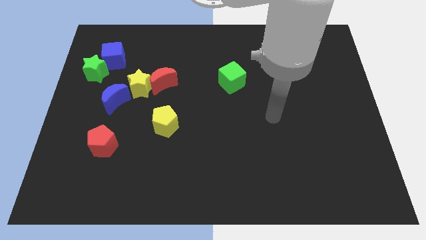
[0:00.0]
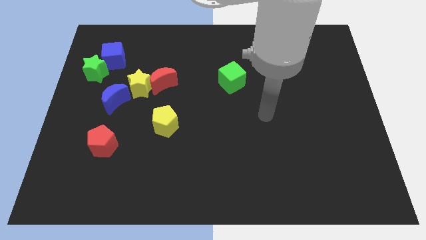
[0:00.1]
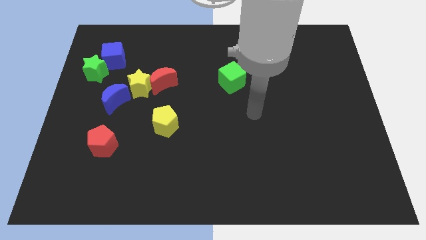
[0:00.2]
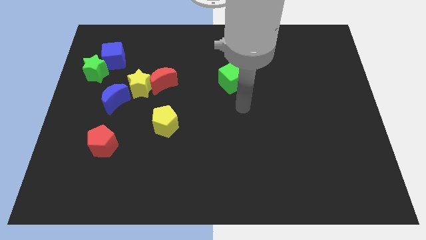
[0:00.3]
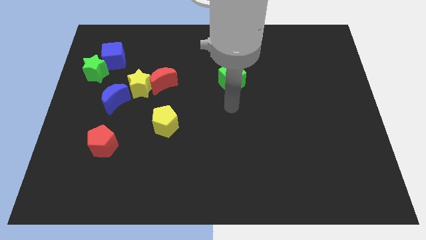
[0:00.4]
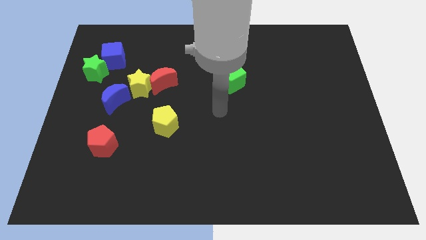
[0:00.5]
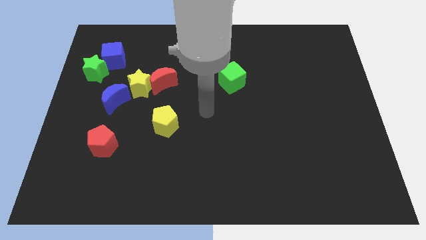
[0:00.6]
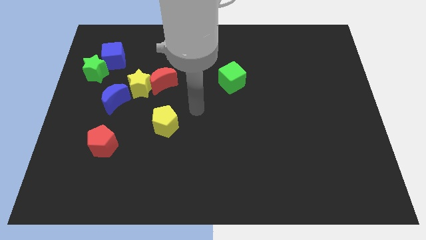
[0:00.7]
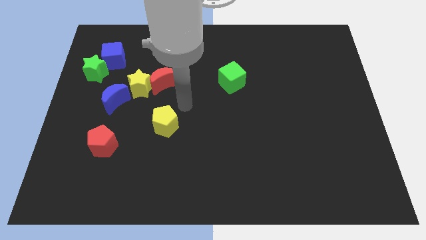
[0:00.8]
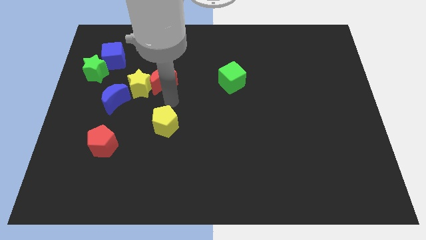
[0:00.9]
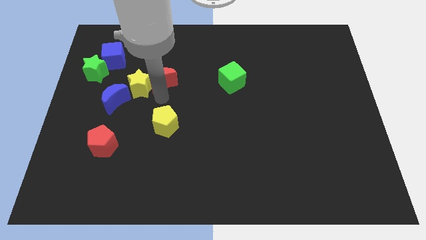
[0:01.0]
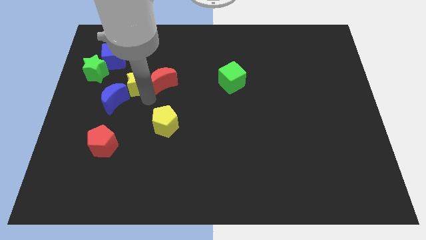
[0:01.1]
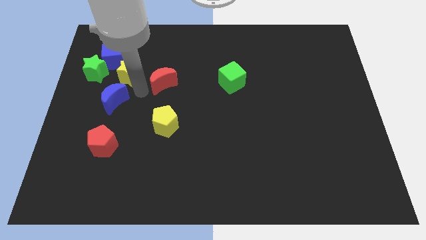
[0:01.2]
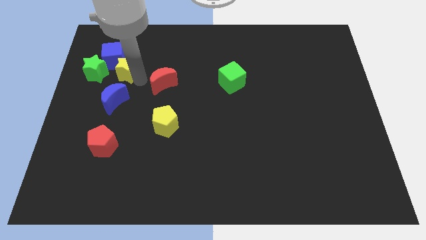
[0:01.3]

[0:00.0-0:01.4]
separate the red moon from the yellow star

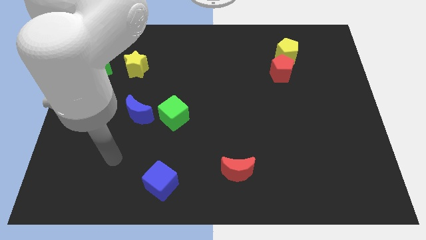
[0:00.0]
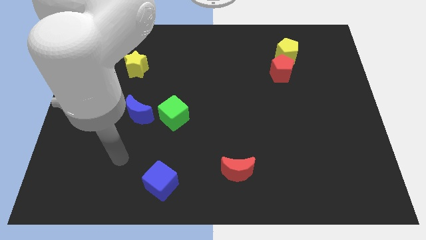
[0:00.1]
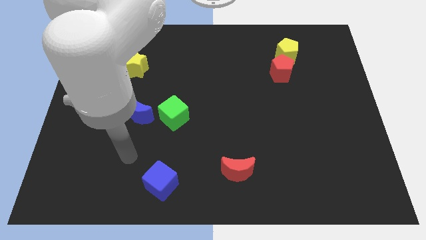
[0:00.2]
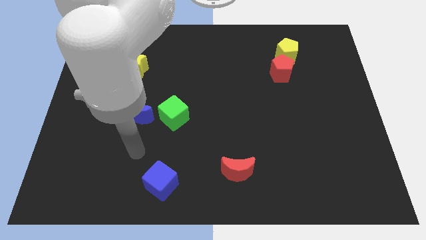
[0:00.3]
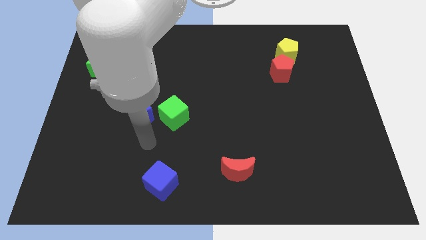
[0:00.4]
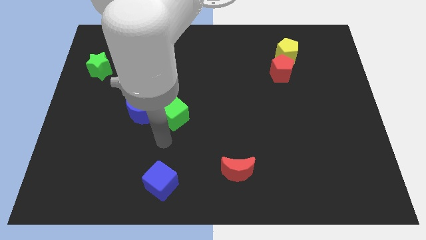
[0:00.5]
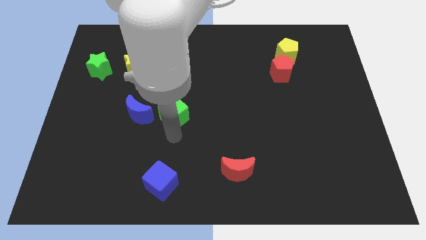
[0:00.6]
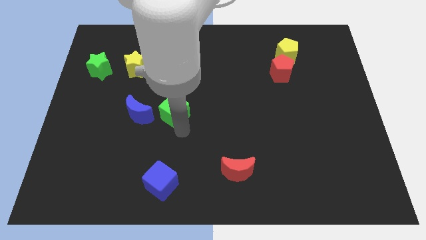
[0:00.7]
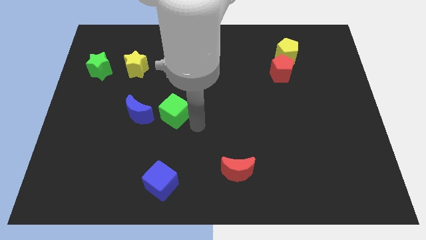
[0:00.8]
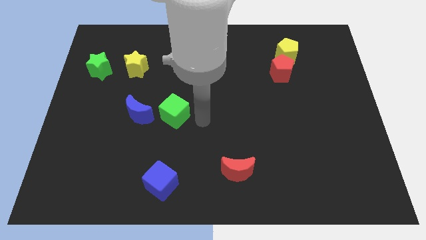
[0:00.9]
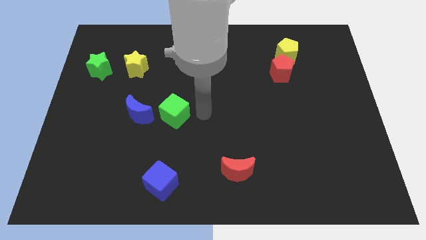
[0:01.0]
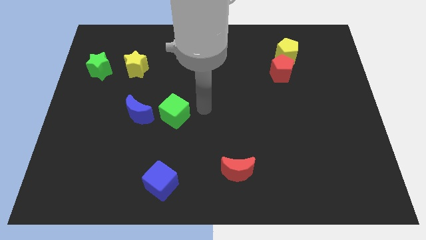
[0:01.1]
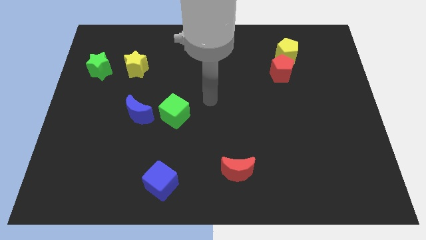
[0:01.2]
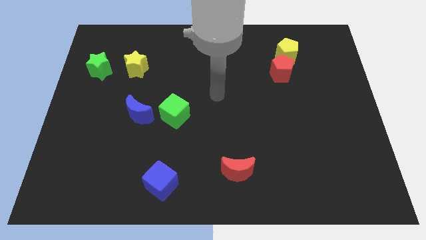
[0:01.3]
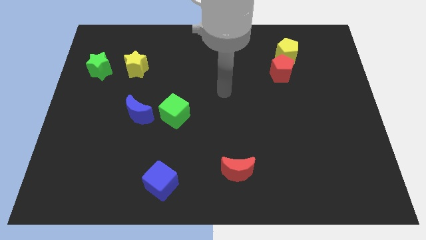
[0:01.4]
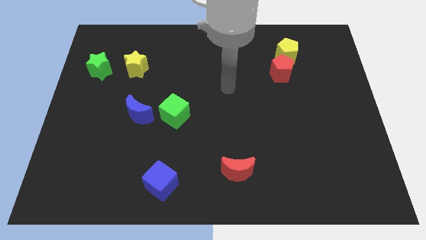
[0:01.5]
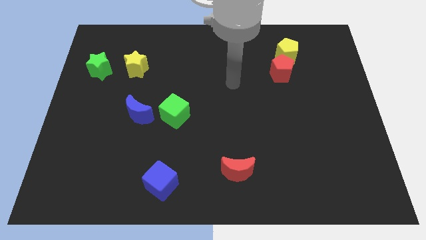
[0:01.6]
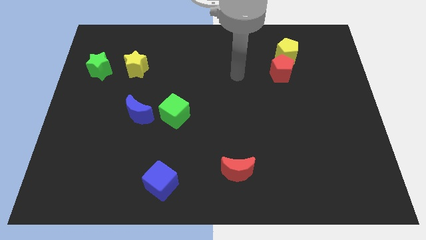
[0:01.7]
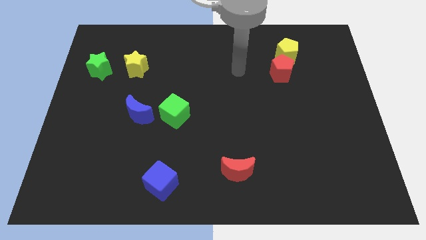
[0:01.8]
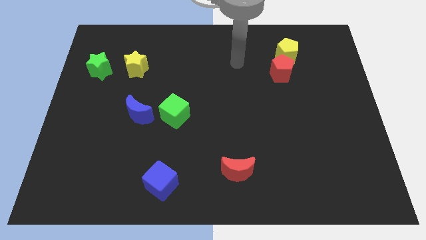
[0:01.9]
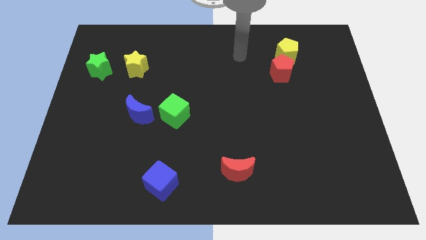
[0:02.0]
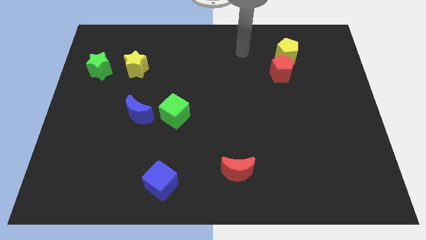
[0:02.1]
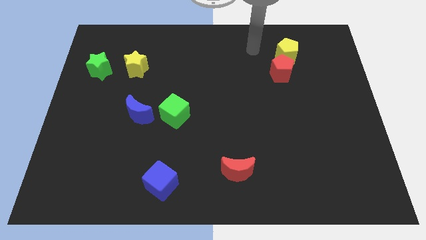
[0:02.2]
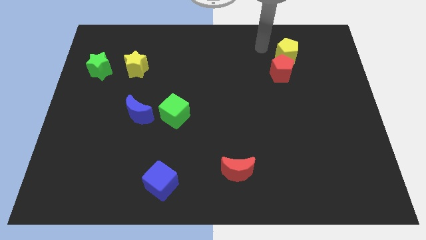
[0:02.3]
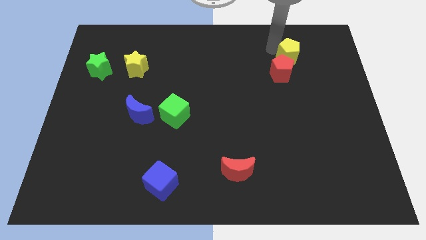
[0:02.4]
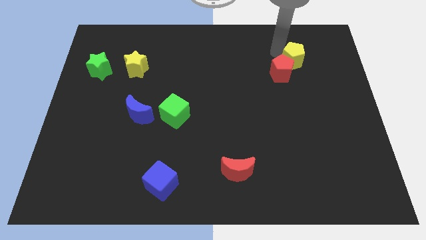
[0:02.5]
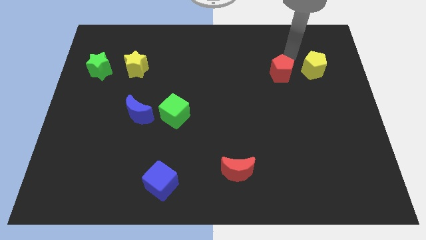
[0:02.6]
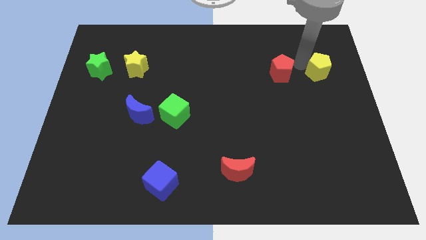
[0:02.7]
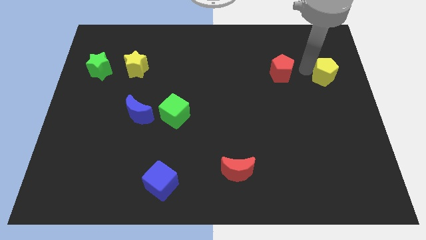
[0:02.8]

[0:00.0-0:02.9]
pull the red pentagon apart from the yellow pentagon

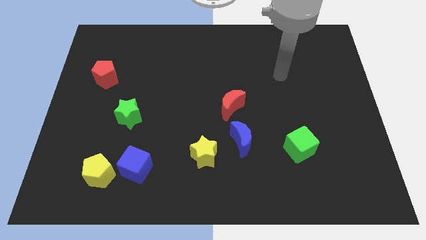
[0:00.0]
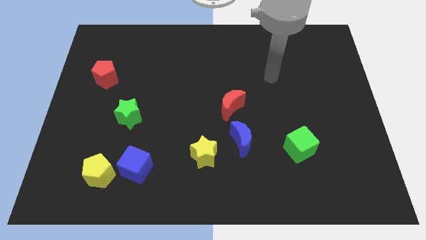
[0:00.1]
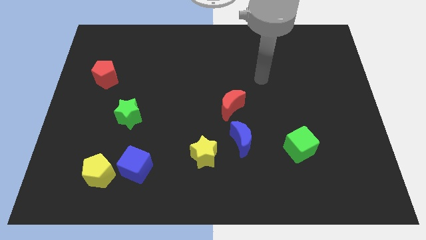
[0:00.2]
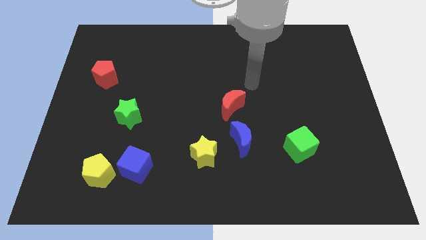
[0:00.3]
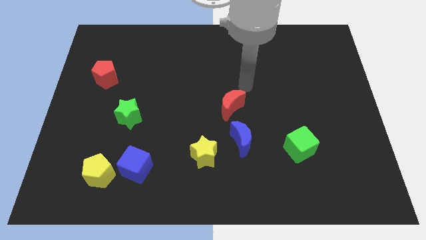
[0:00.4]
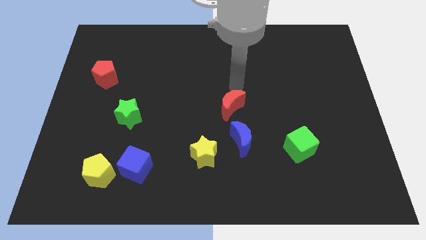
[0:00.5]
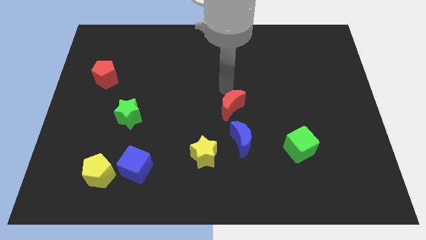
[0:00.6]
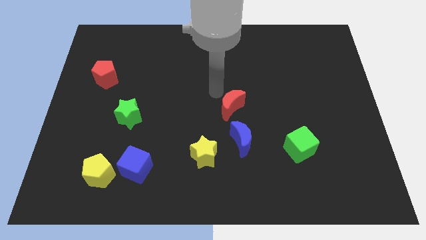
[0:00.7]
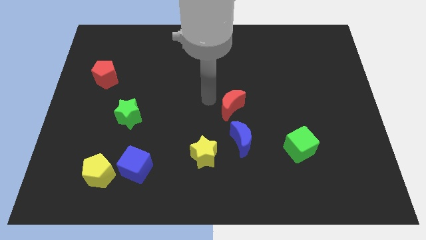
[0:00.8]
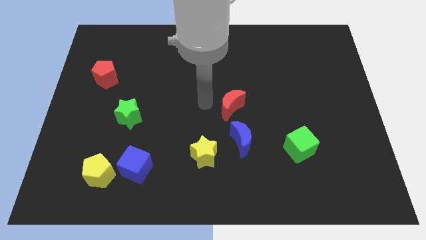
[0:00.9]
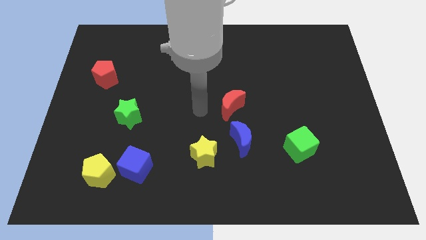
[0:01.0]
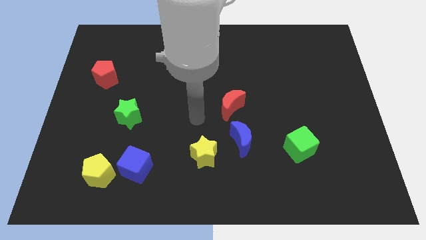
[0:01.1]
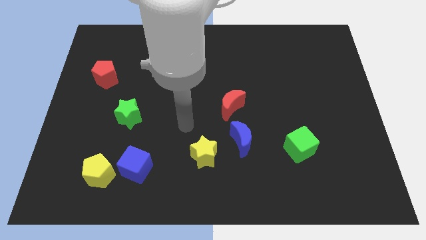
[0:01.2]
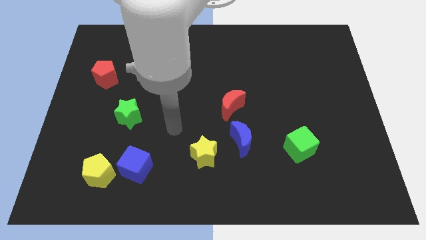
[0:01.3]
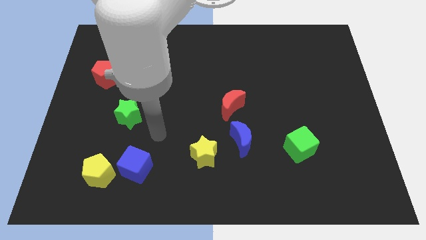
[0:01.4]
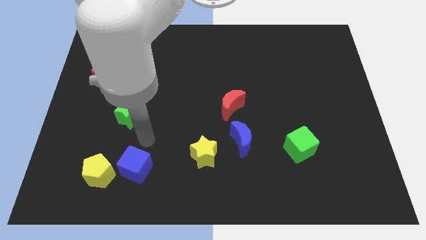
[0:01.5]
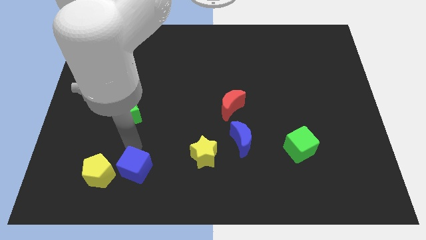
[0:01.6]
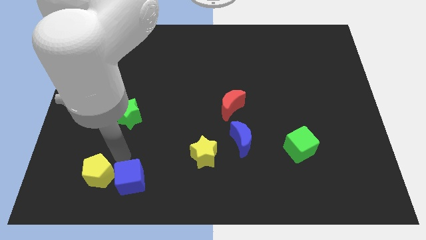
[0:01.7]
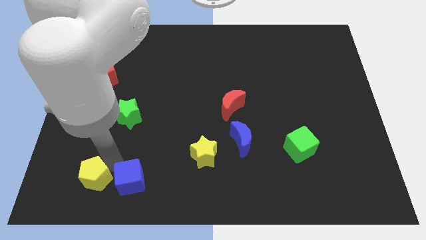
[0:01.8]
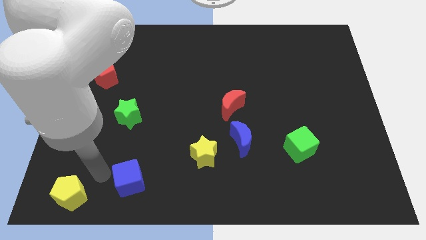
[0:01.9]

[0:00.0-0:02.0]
separate the blue cube from the yellow pentagon

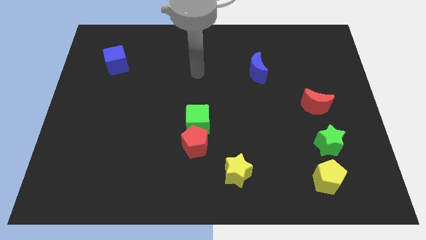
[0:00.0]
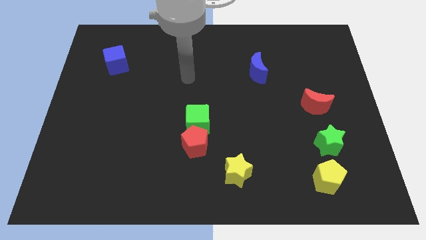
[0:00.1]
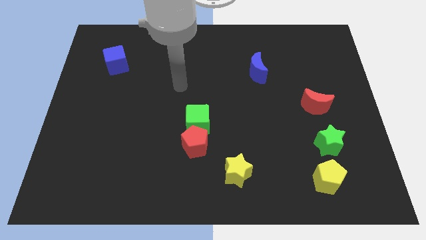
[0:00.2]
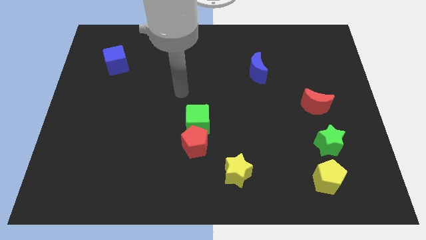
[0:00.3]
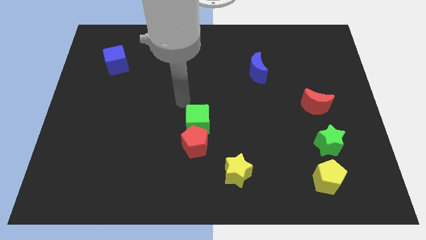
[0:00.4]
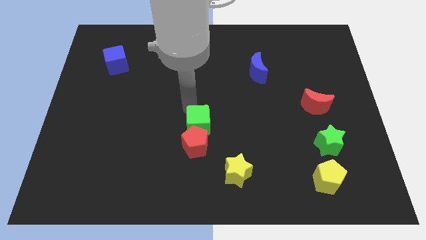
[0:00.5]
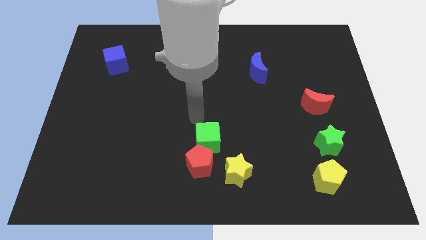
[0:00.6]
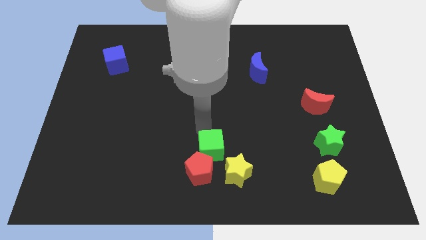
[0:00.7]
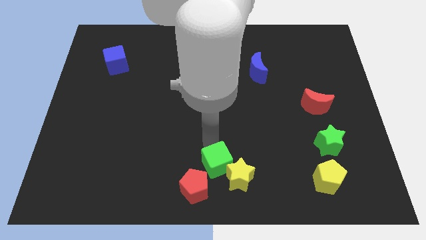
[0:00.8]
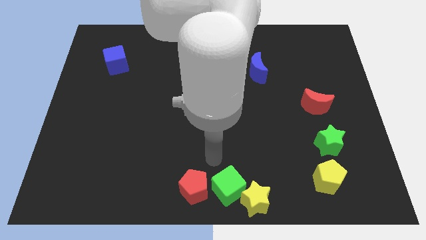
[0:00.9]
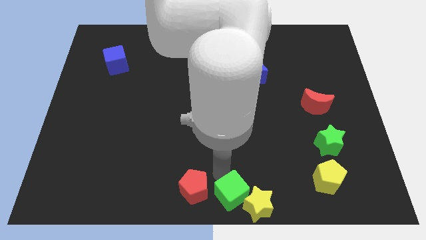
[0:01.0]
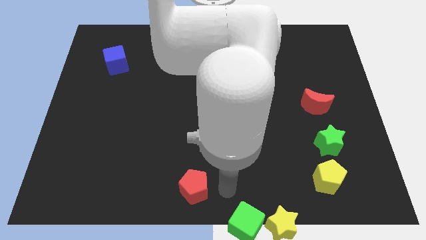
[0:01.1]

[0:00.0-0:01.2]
move the red pentagon away from the green cube

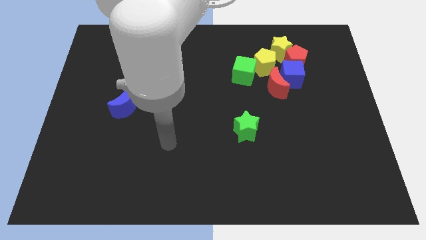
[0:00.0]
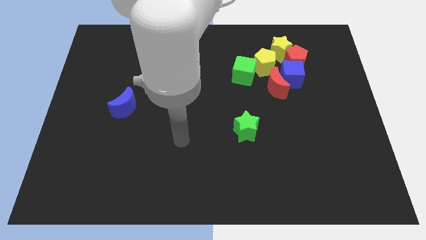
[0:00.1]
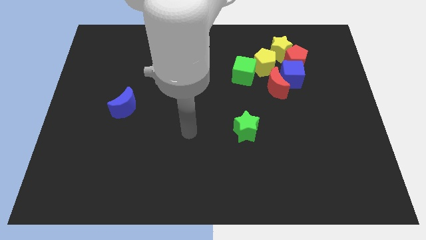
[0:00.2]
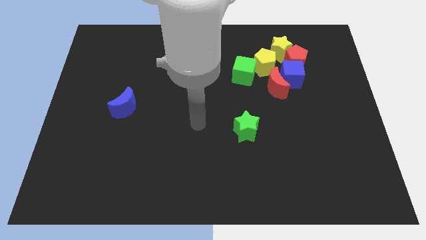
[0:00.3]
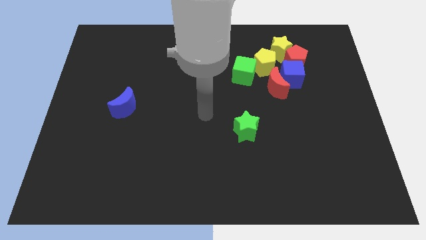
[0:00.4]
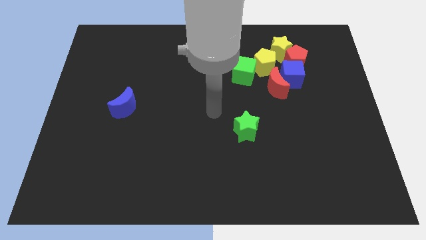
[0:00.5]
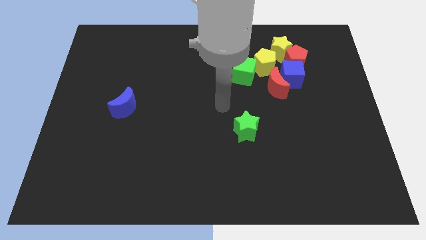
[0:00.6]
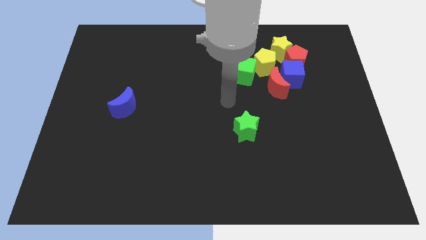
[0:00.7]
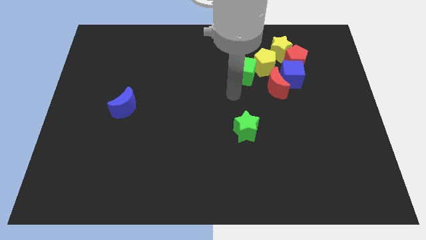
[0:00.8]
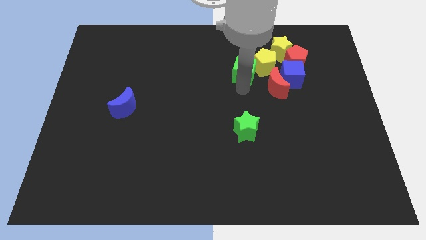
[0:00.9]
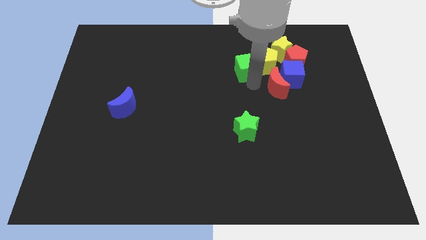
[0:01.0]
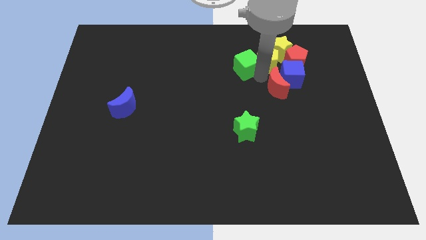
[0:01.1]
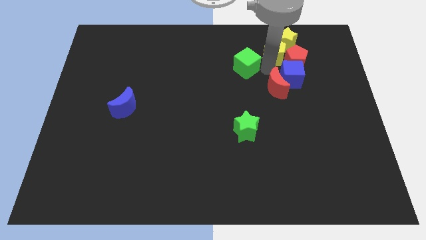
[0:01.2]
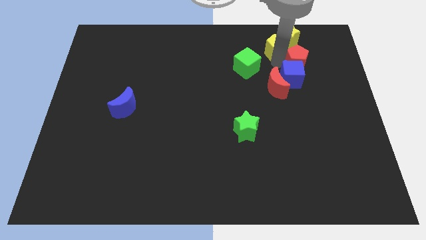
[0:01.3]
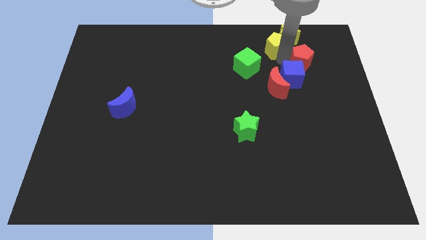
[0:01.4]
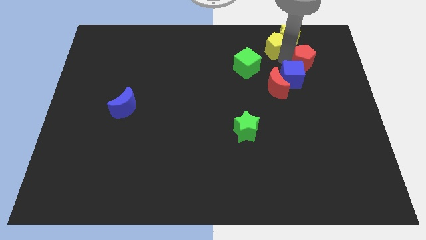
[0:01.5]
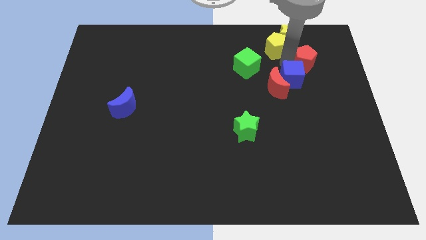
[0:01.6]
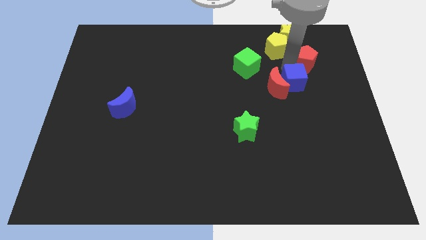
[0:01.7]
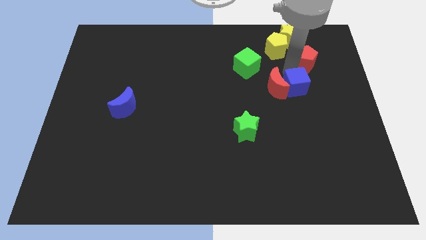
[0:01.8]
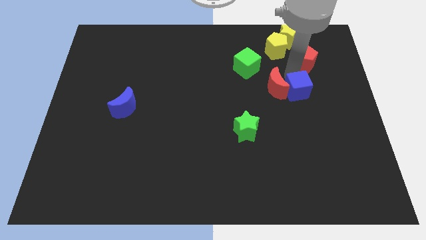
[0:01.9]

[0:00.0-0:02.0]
separate the blue cube from the group
